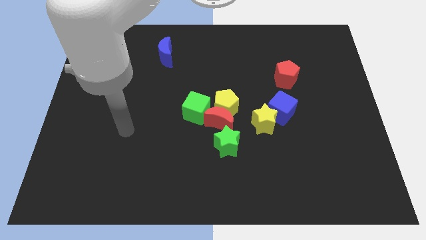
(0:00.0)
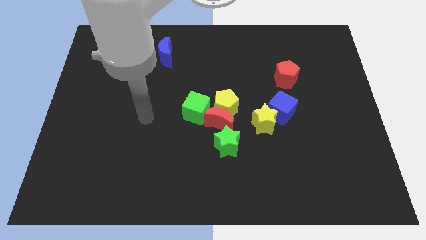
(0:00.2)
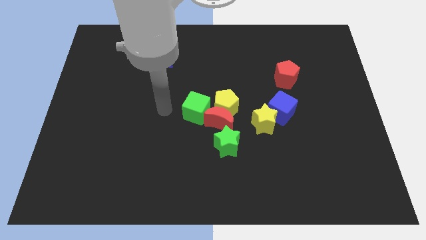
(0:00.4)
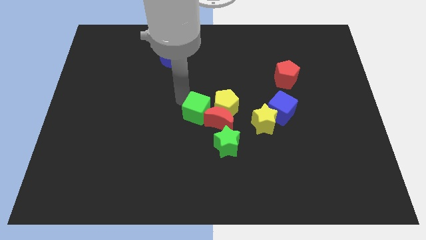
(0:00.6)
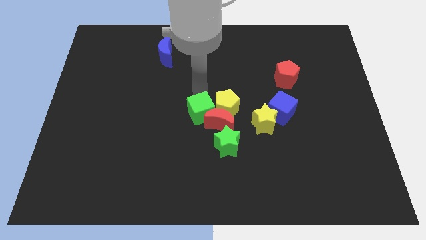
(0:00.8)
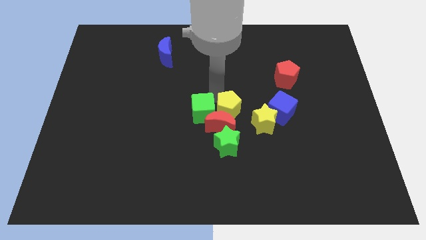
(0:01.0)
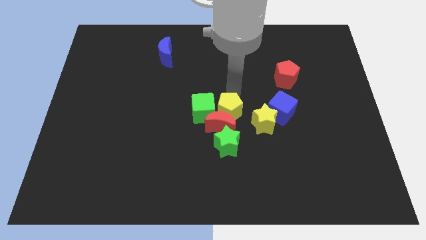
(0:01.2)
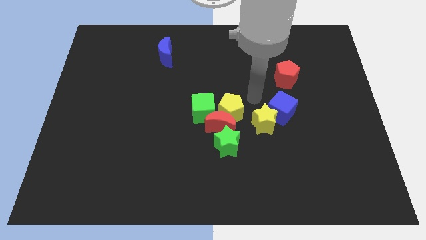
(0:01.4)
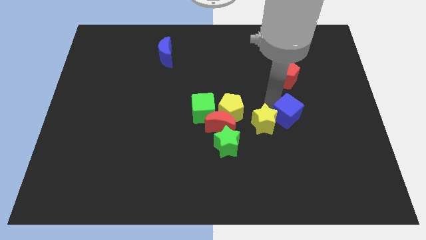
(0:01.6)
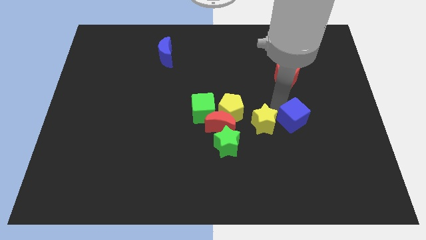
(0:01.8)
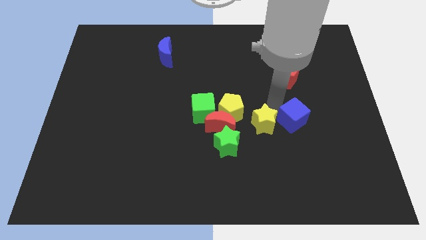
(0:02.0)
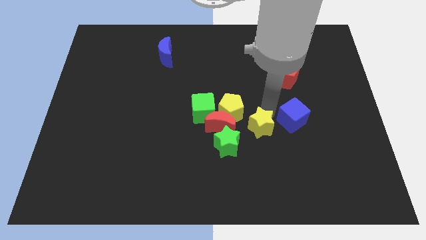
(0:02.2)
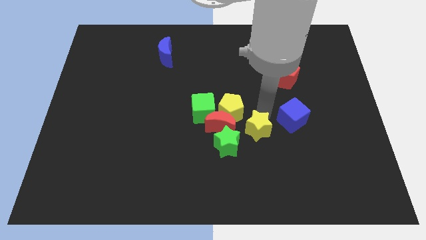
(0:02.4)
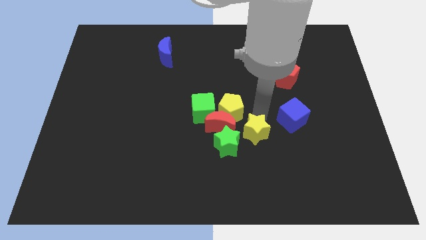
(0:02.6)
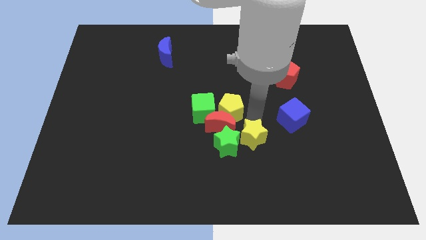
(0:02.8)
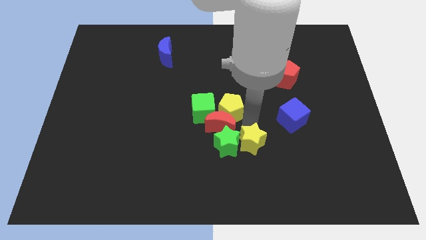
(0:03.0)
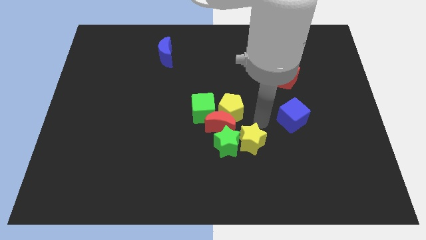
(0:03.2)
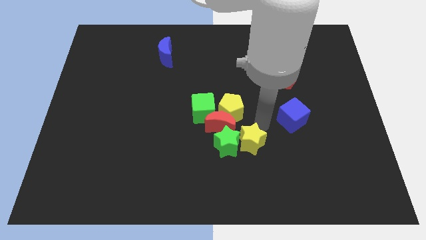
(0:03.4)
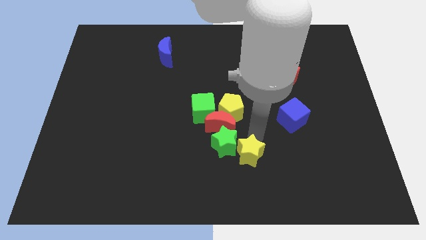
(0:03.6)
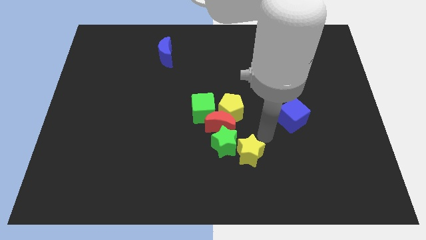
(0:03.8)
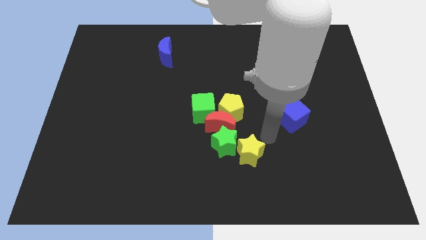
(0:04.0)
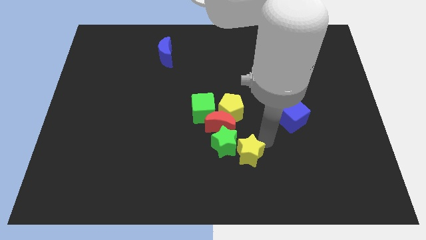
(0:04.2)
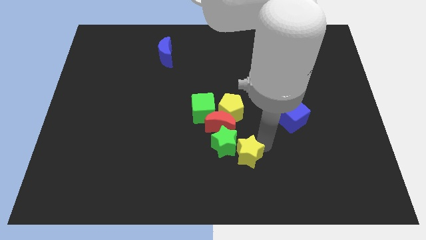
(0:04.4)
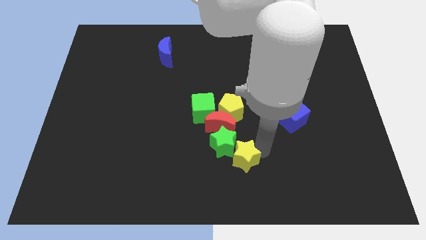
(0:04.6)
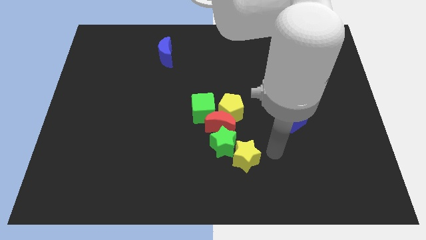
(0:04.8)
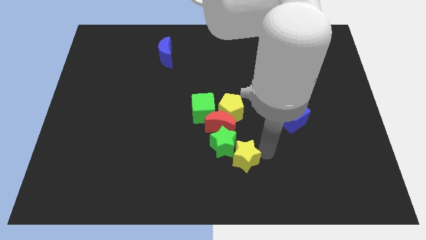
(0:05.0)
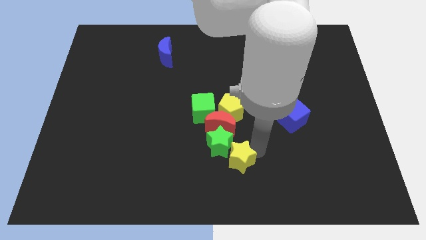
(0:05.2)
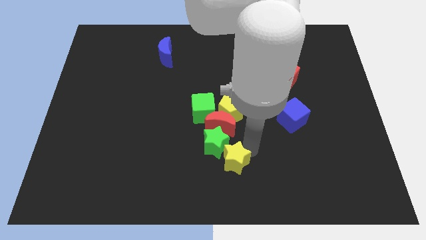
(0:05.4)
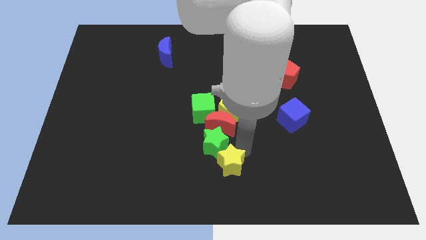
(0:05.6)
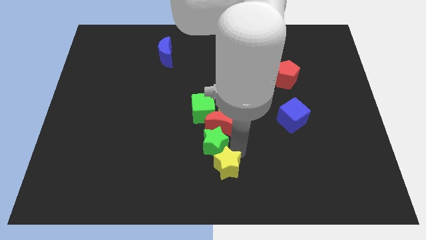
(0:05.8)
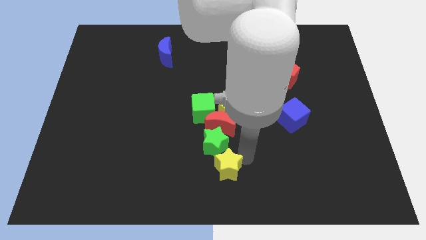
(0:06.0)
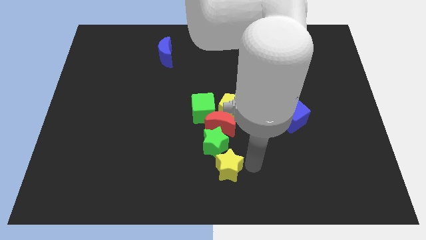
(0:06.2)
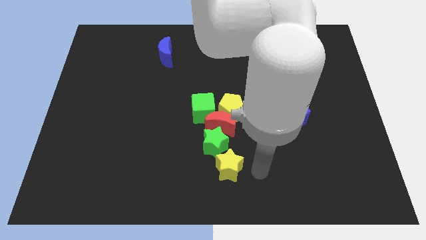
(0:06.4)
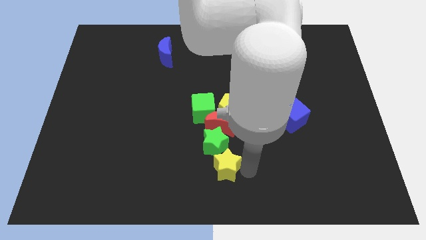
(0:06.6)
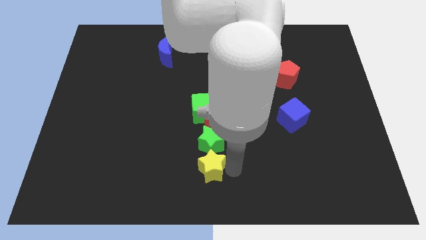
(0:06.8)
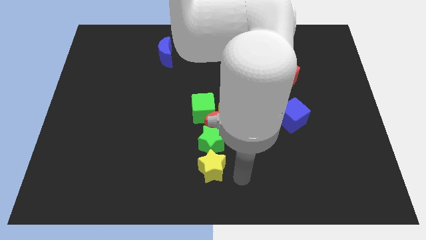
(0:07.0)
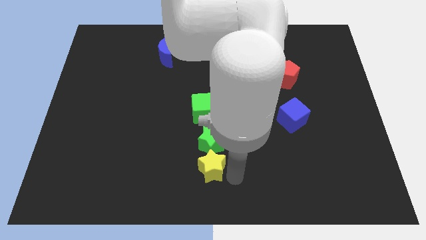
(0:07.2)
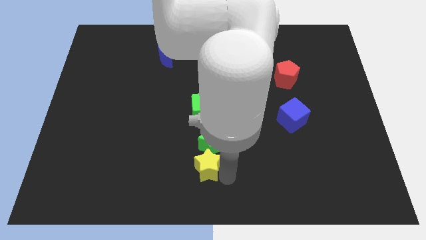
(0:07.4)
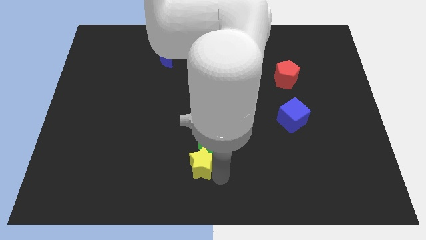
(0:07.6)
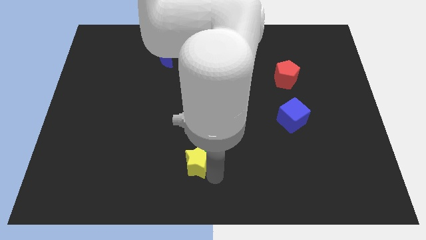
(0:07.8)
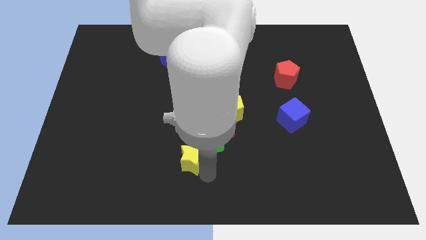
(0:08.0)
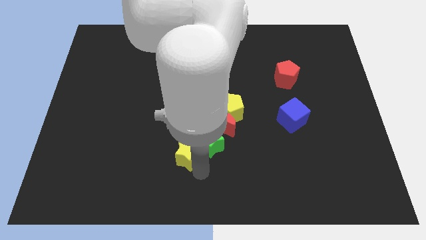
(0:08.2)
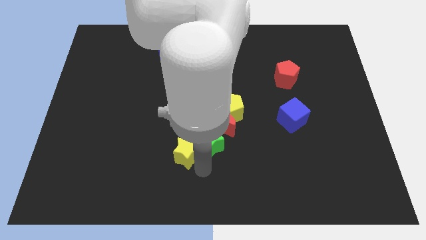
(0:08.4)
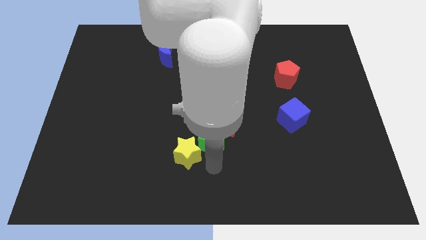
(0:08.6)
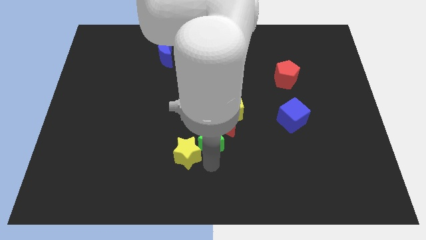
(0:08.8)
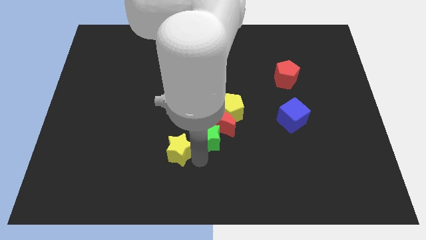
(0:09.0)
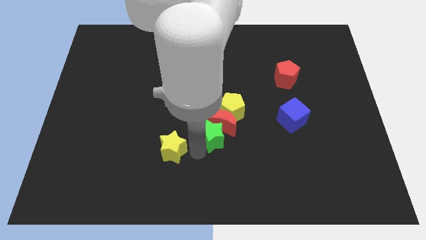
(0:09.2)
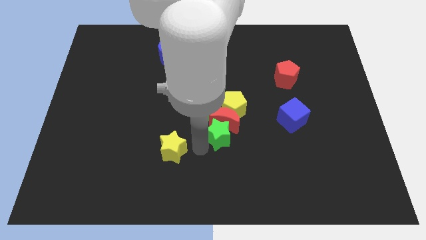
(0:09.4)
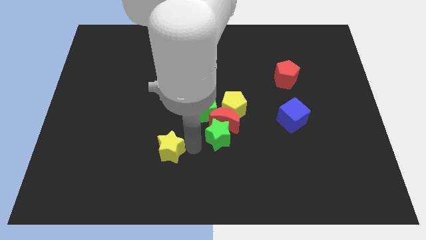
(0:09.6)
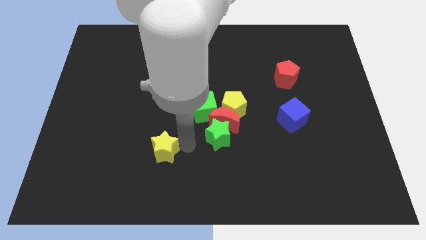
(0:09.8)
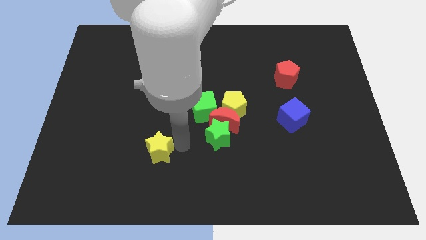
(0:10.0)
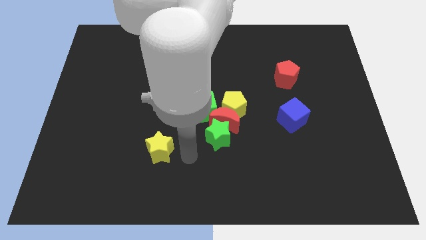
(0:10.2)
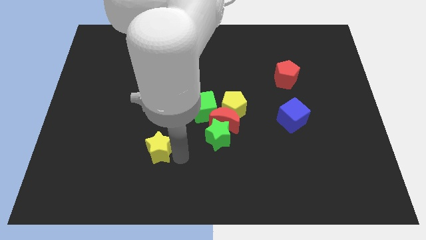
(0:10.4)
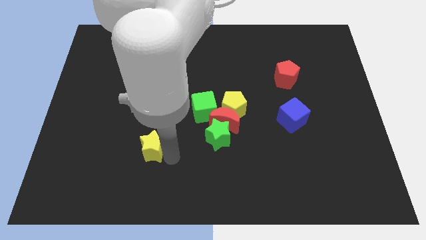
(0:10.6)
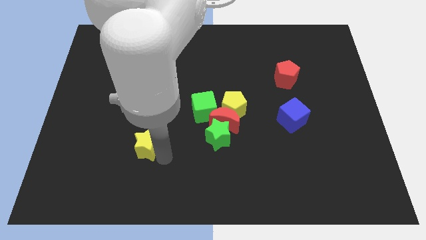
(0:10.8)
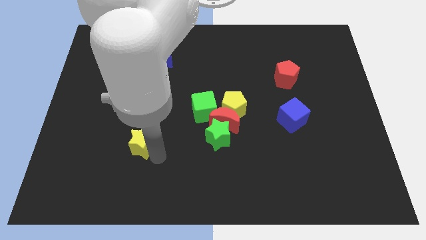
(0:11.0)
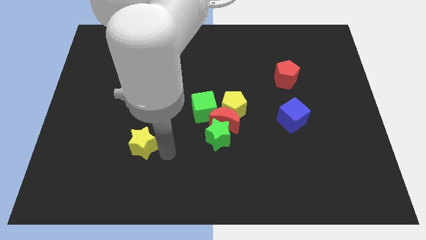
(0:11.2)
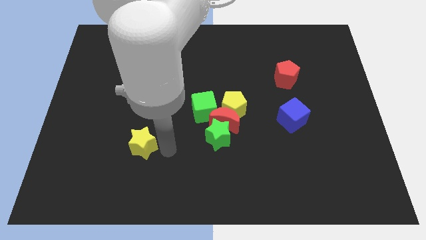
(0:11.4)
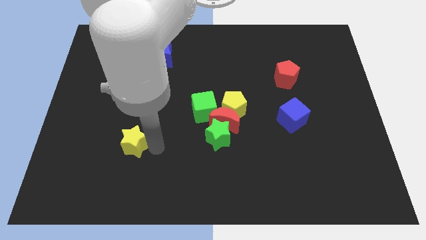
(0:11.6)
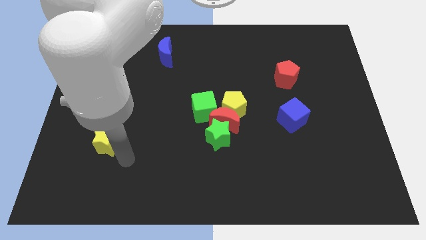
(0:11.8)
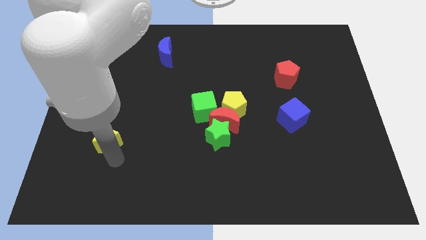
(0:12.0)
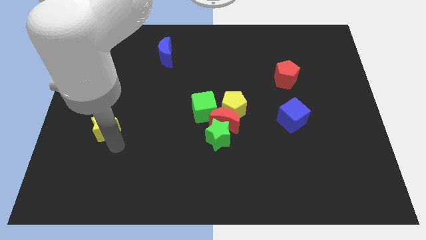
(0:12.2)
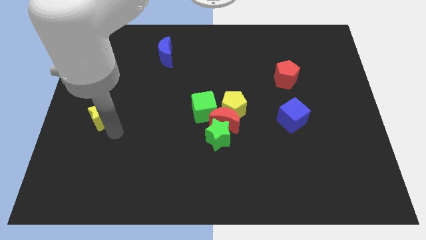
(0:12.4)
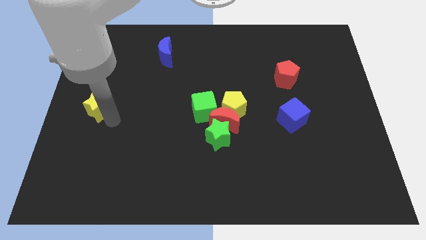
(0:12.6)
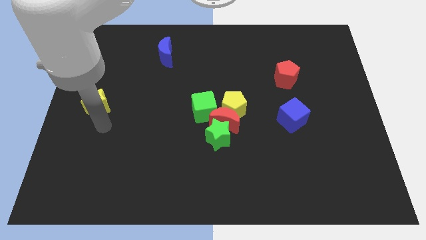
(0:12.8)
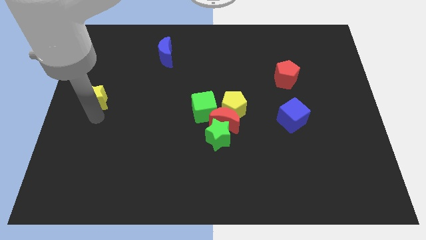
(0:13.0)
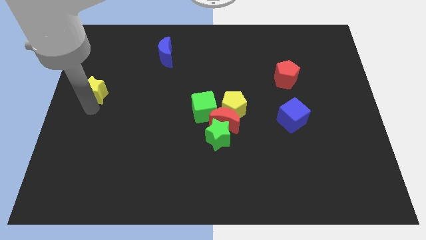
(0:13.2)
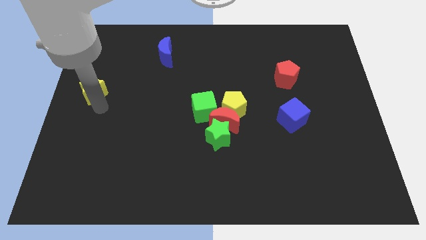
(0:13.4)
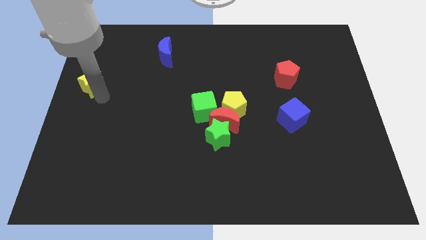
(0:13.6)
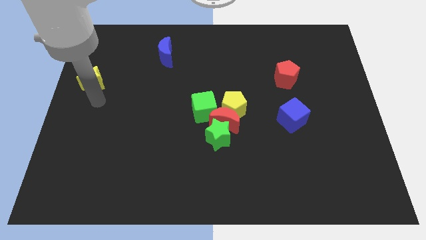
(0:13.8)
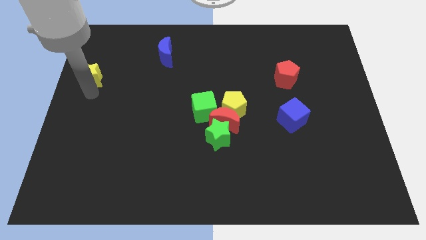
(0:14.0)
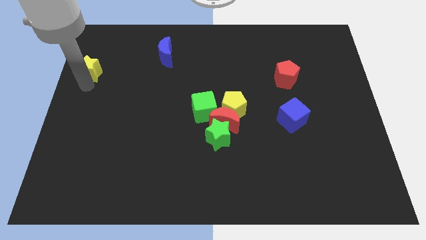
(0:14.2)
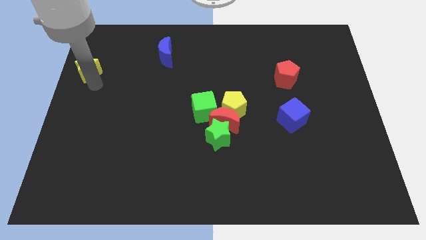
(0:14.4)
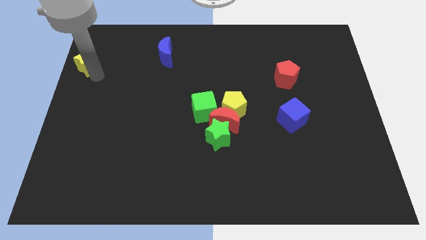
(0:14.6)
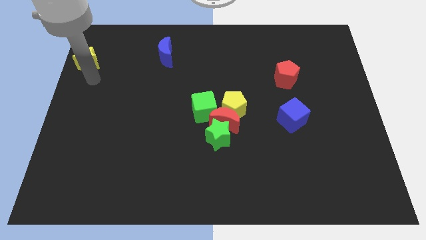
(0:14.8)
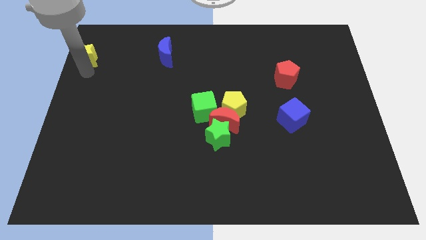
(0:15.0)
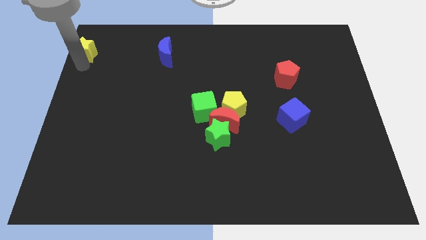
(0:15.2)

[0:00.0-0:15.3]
slide the yellow star to the top left
